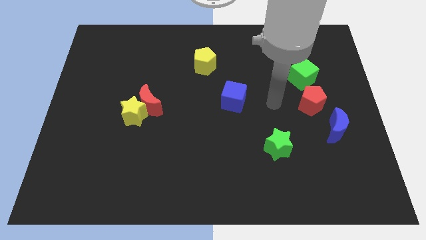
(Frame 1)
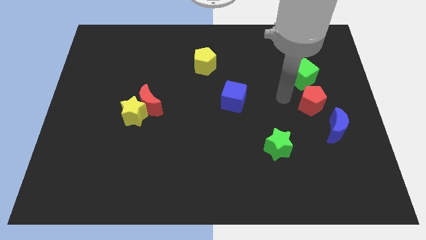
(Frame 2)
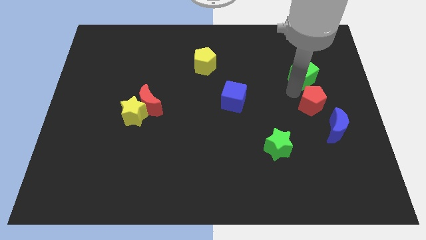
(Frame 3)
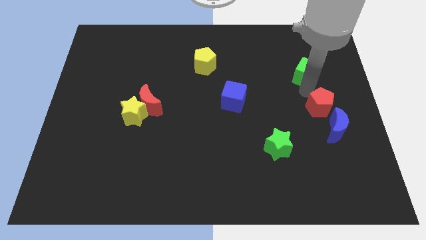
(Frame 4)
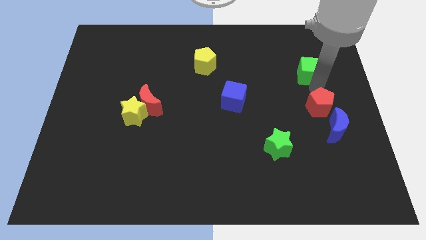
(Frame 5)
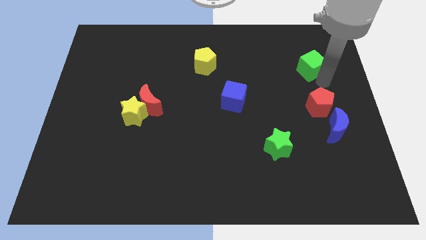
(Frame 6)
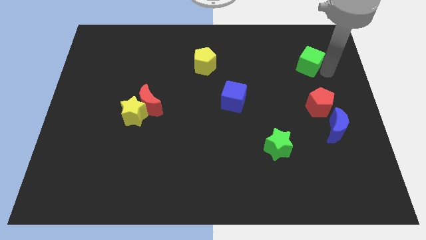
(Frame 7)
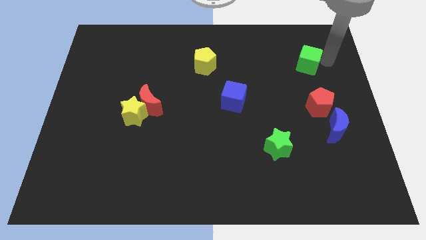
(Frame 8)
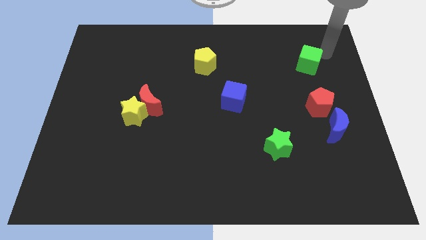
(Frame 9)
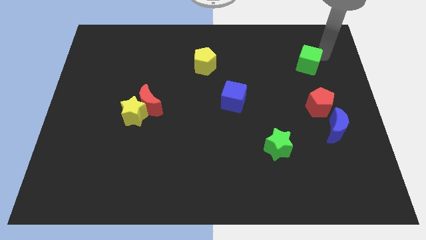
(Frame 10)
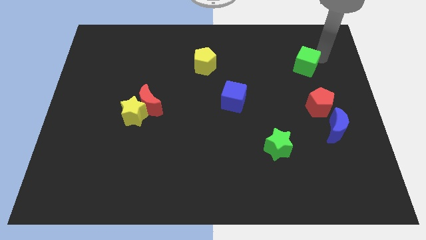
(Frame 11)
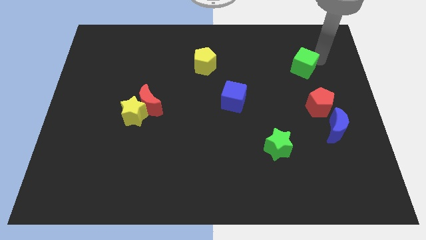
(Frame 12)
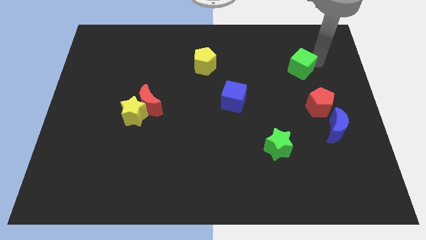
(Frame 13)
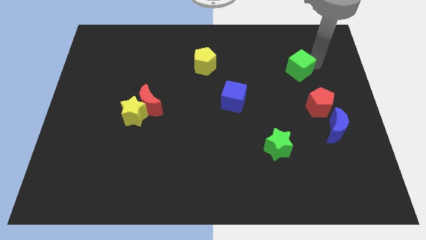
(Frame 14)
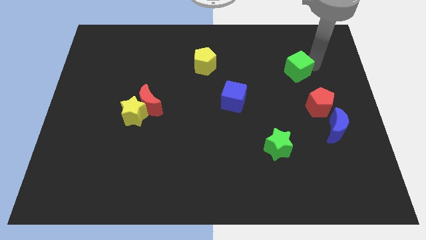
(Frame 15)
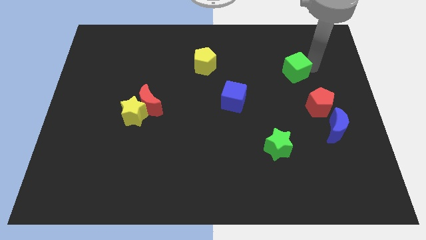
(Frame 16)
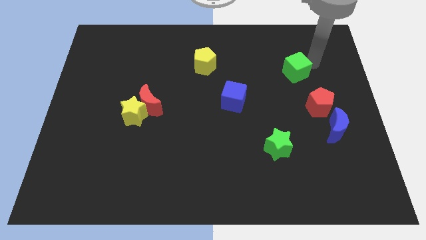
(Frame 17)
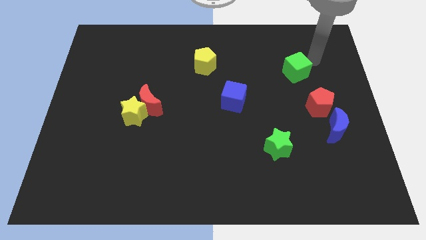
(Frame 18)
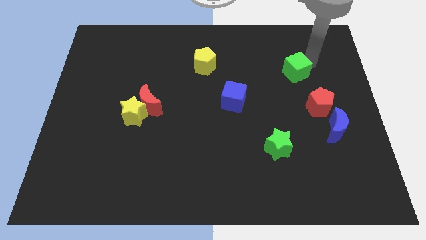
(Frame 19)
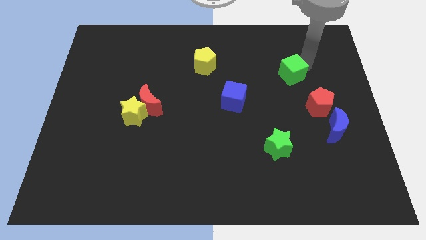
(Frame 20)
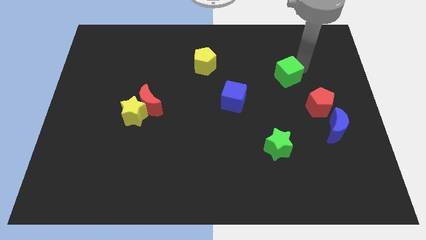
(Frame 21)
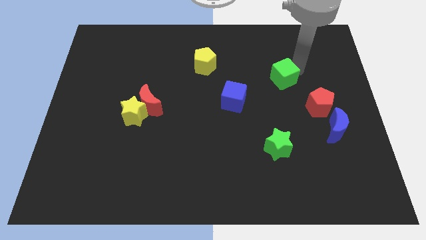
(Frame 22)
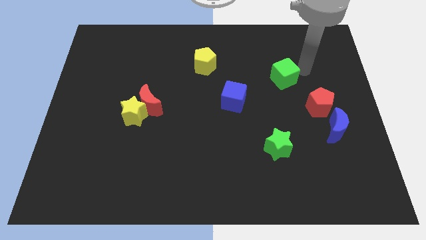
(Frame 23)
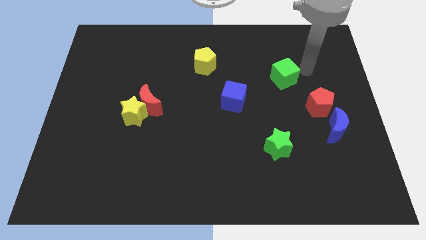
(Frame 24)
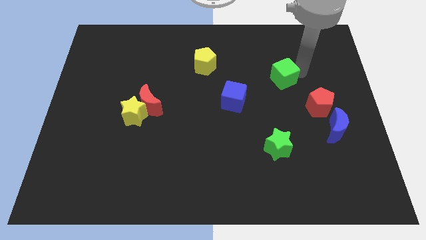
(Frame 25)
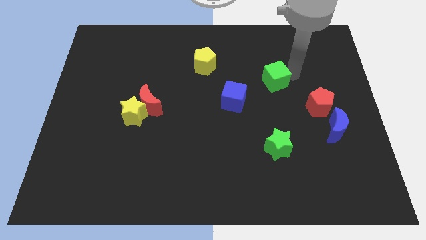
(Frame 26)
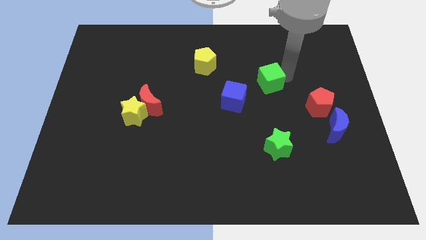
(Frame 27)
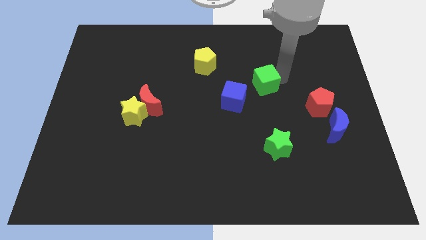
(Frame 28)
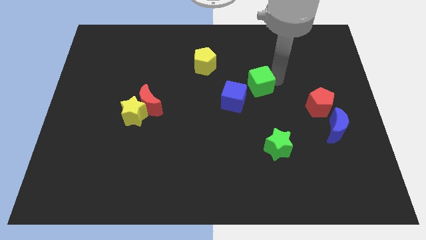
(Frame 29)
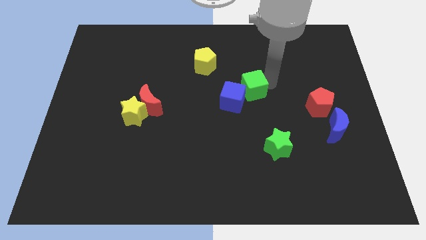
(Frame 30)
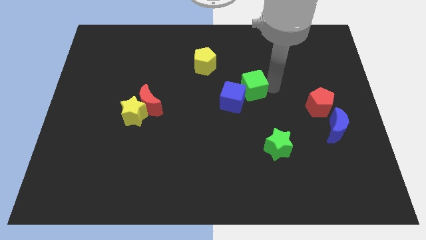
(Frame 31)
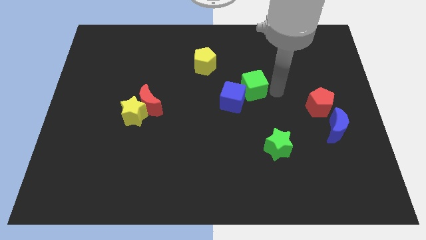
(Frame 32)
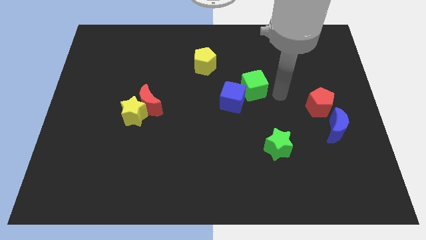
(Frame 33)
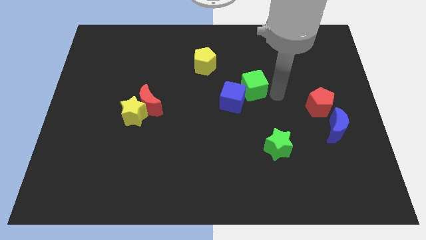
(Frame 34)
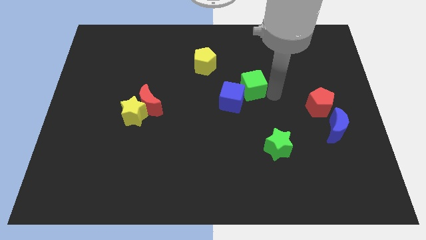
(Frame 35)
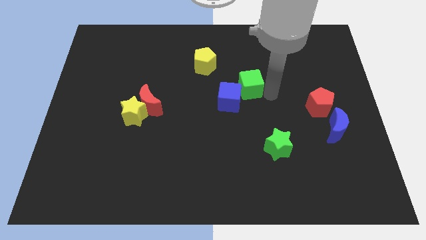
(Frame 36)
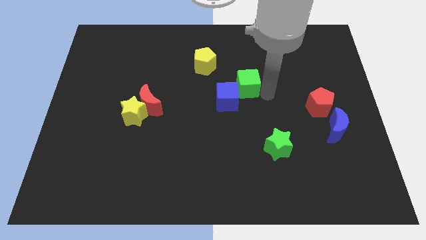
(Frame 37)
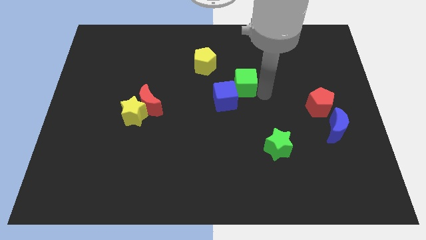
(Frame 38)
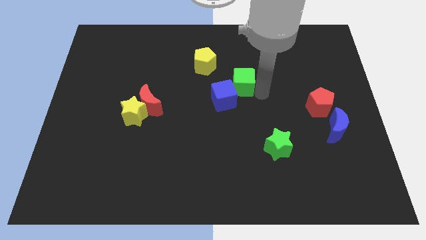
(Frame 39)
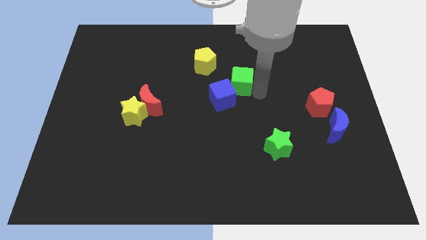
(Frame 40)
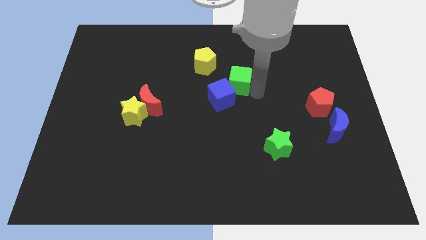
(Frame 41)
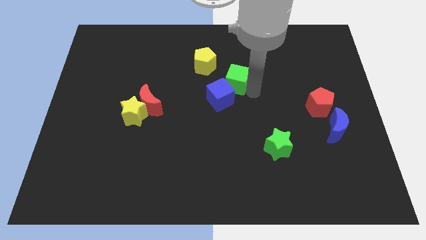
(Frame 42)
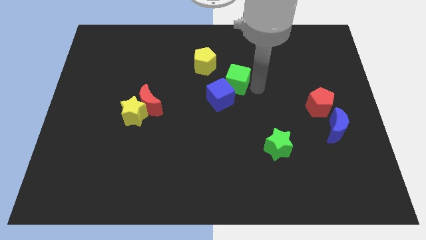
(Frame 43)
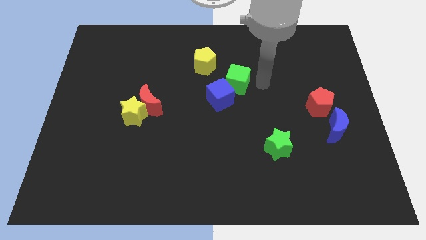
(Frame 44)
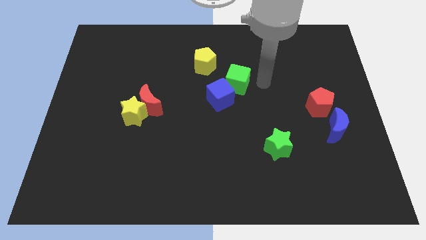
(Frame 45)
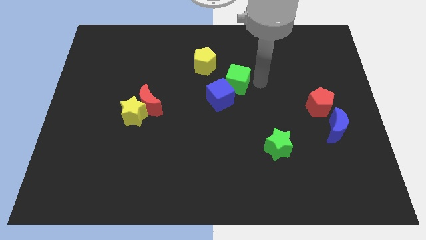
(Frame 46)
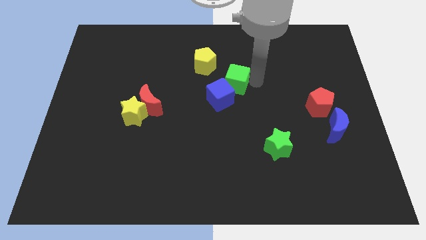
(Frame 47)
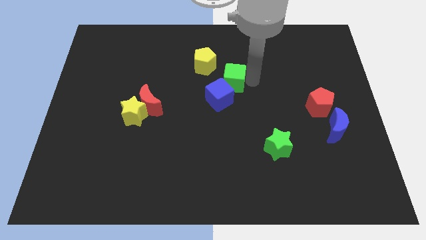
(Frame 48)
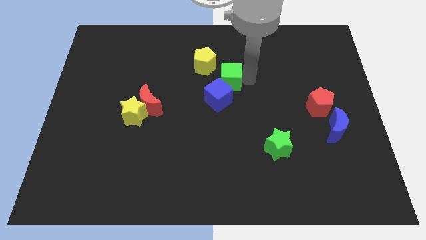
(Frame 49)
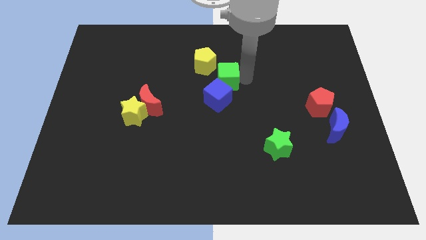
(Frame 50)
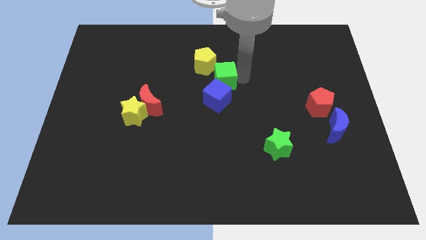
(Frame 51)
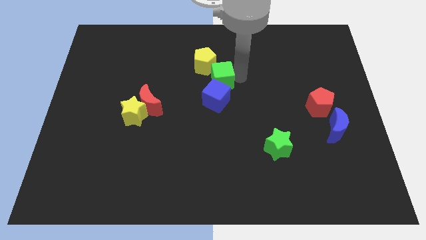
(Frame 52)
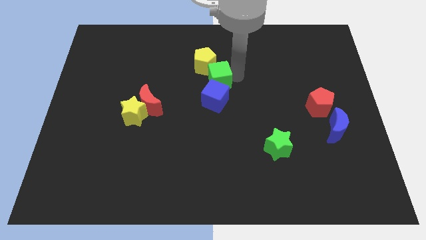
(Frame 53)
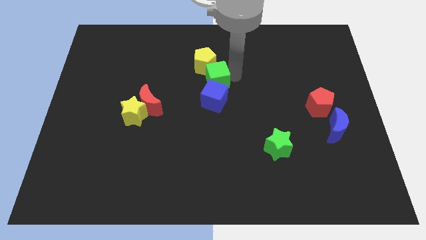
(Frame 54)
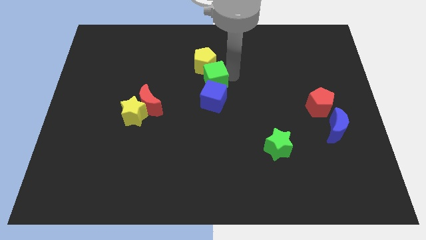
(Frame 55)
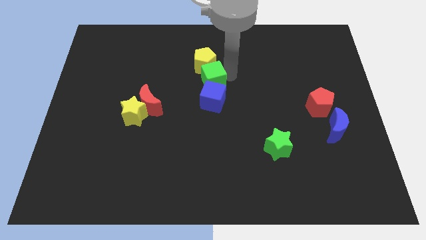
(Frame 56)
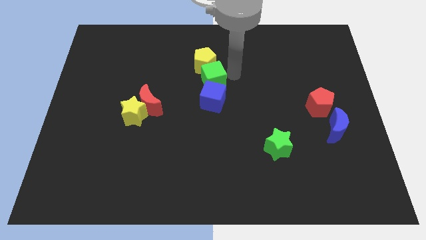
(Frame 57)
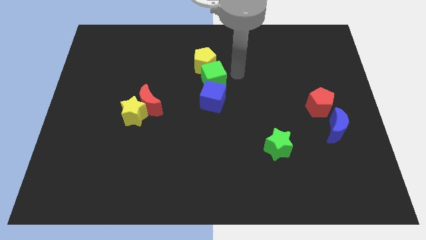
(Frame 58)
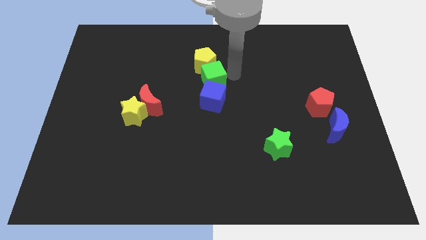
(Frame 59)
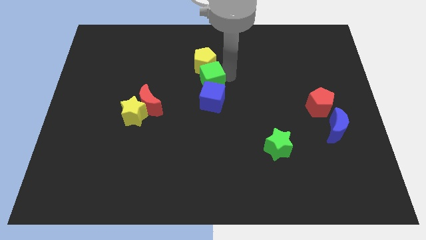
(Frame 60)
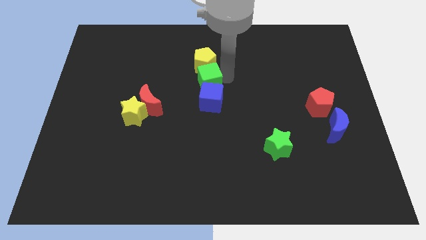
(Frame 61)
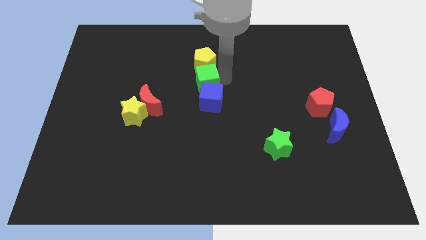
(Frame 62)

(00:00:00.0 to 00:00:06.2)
push the green cube to the bottom left of the yellow pentagon

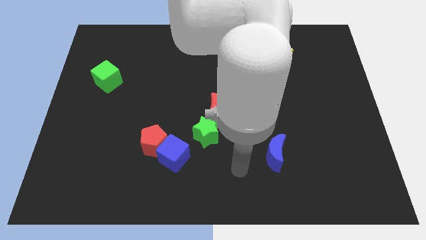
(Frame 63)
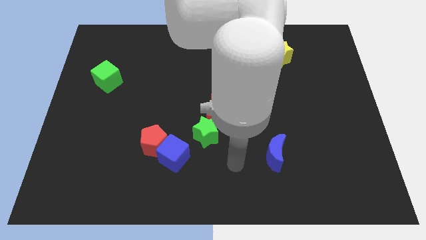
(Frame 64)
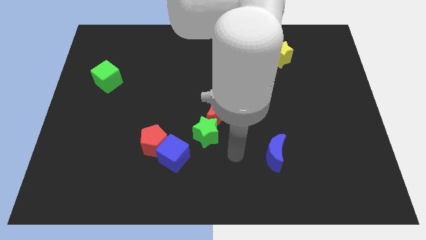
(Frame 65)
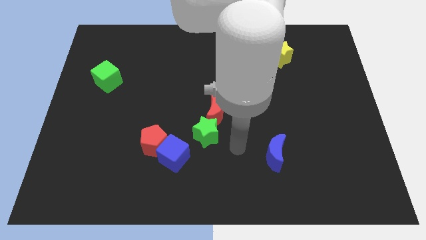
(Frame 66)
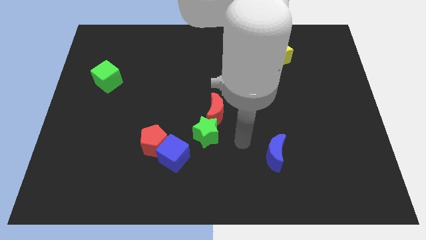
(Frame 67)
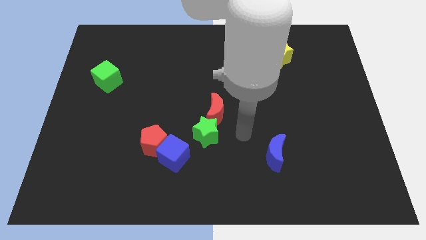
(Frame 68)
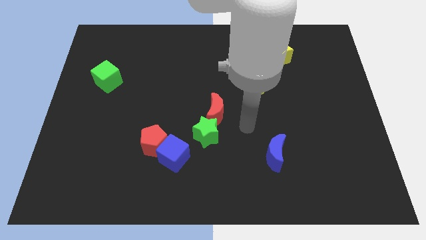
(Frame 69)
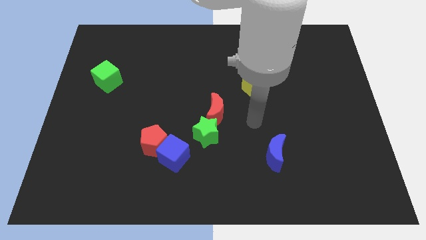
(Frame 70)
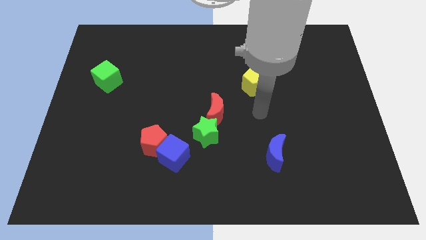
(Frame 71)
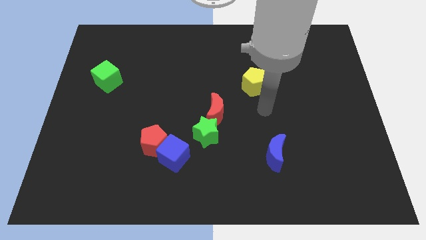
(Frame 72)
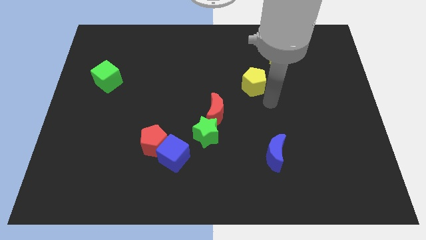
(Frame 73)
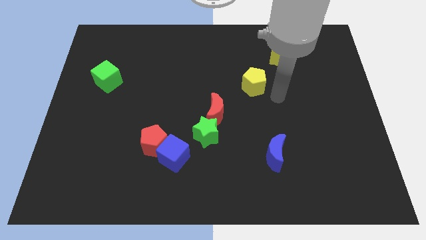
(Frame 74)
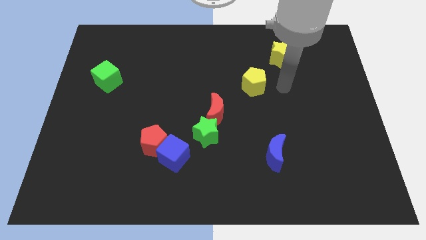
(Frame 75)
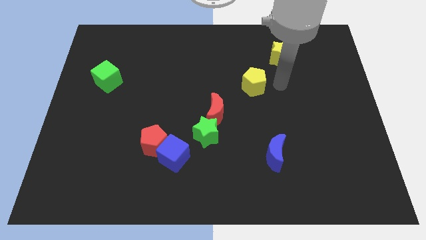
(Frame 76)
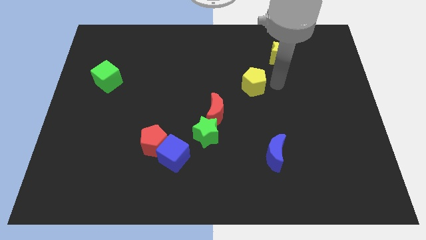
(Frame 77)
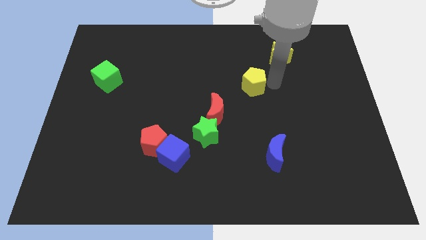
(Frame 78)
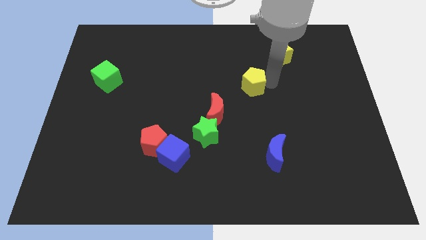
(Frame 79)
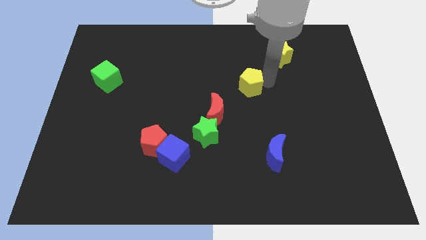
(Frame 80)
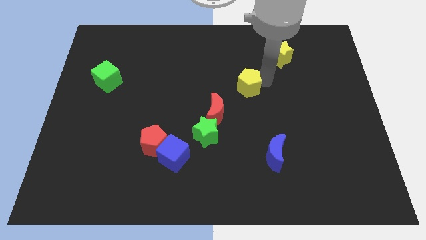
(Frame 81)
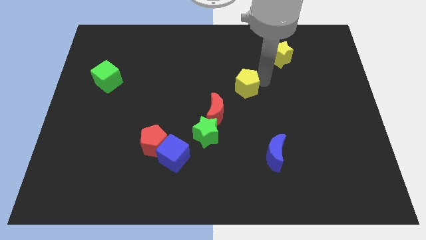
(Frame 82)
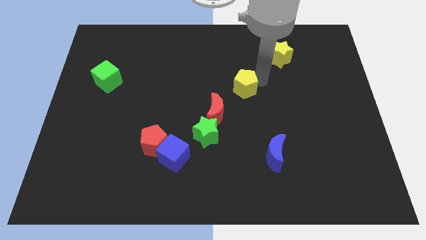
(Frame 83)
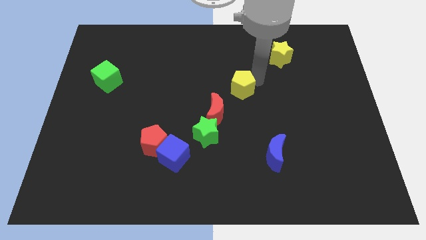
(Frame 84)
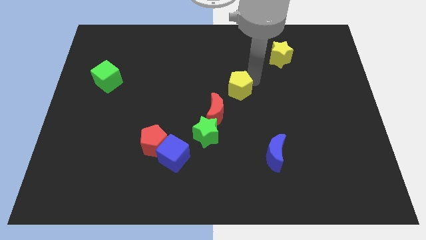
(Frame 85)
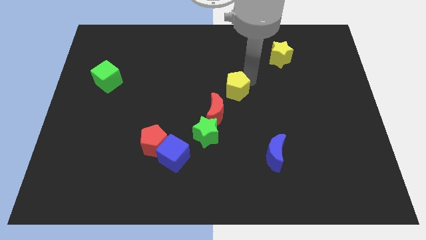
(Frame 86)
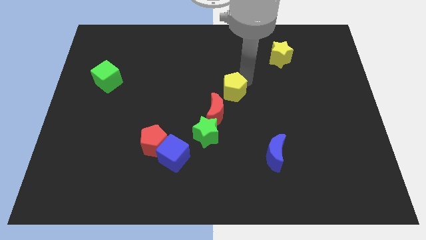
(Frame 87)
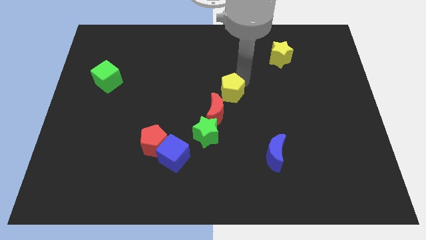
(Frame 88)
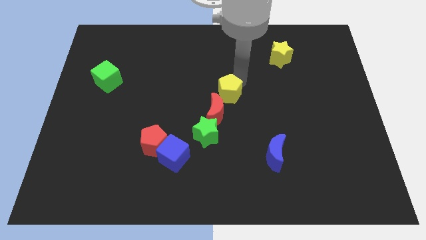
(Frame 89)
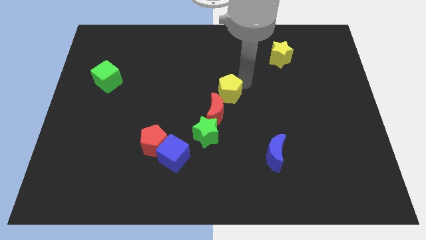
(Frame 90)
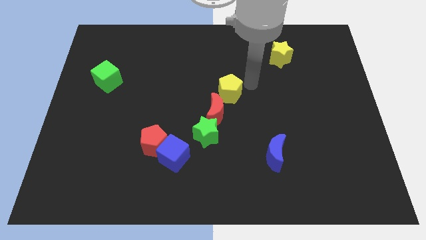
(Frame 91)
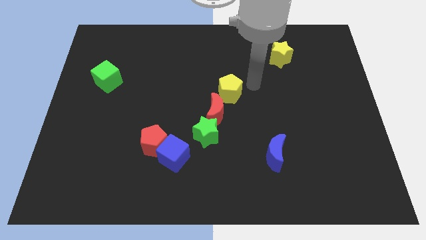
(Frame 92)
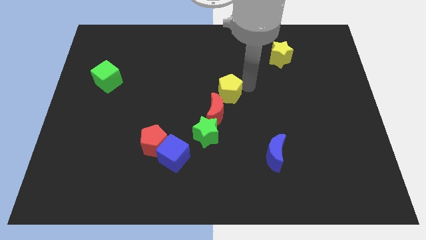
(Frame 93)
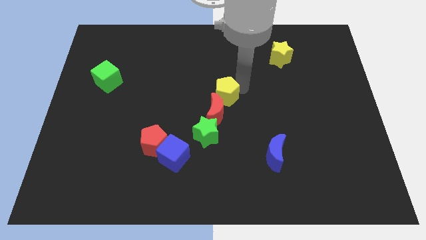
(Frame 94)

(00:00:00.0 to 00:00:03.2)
push the yellow pentagon above the green star
